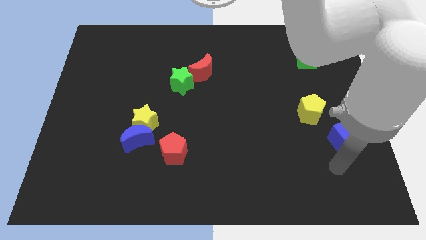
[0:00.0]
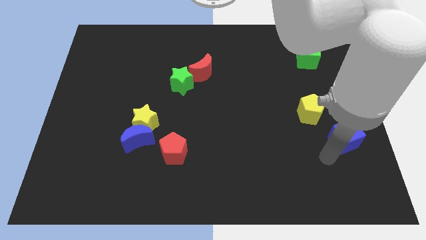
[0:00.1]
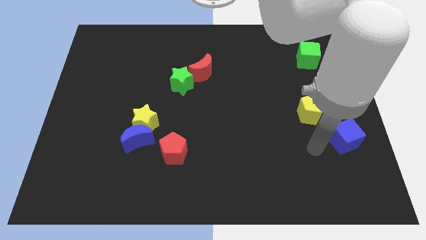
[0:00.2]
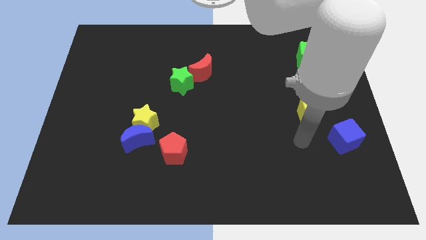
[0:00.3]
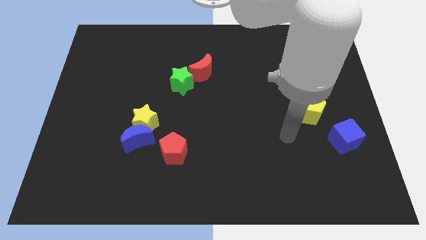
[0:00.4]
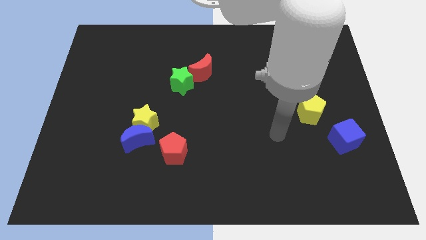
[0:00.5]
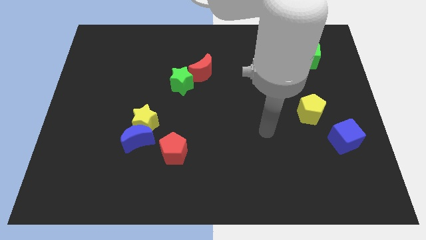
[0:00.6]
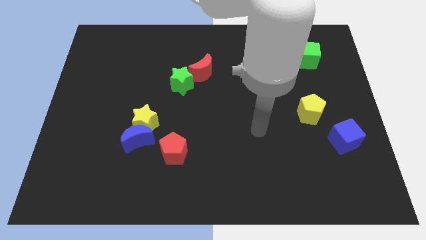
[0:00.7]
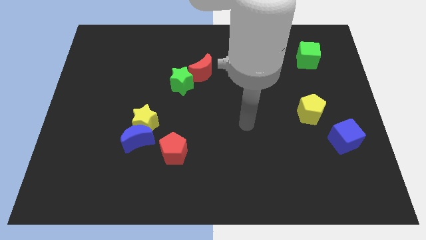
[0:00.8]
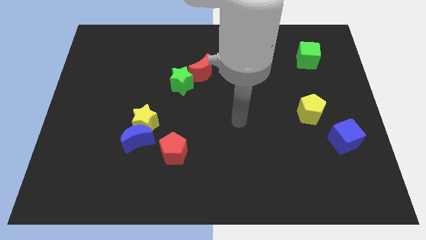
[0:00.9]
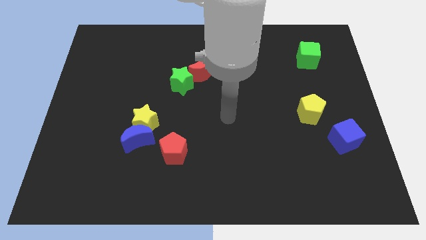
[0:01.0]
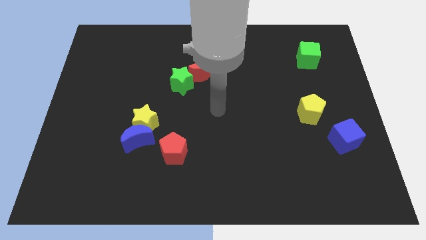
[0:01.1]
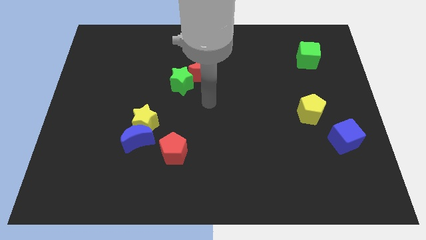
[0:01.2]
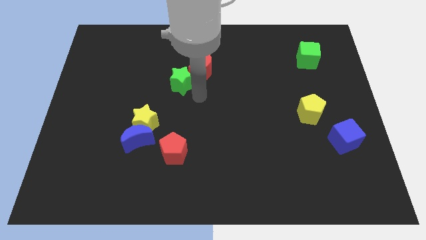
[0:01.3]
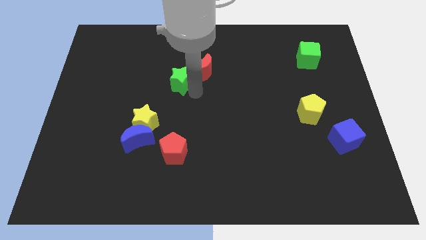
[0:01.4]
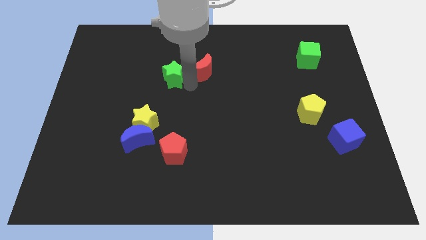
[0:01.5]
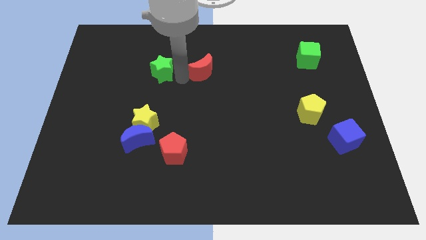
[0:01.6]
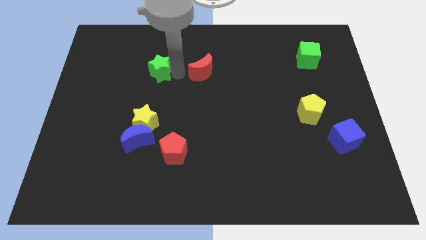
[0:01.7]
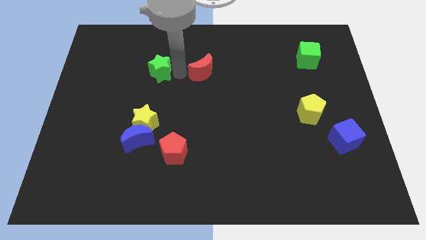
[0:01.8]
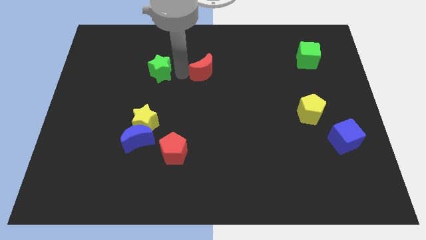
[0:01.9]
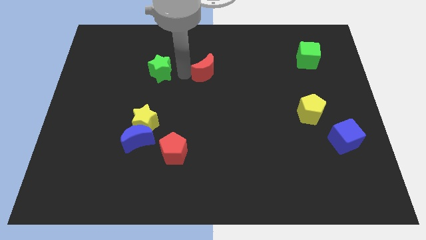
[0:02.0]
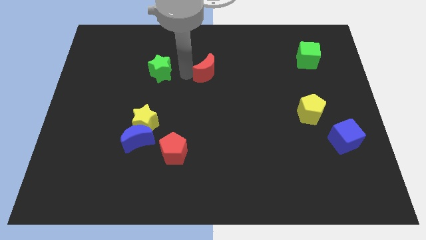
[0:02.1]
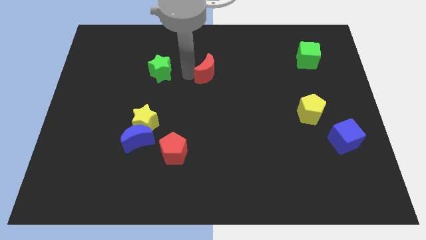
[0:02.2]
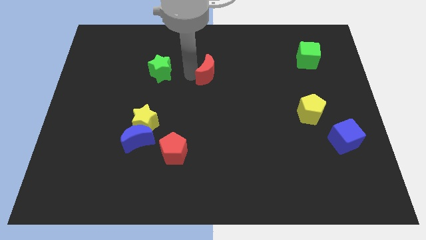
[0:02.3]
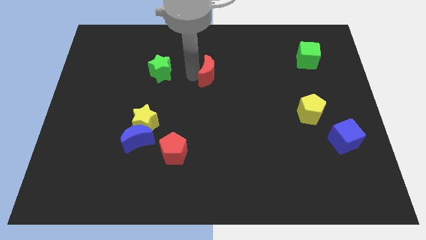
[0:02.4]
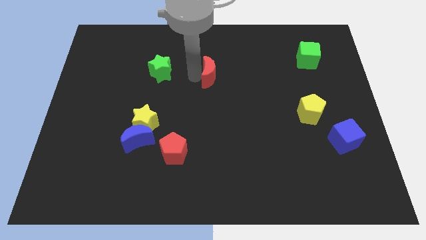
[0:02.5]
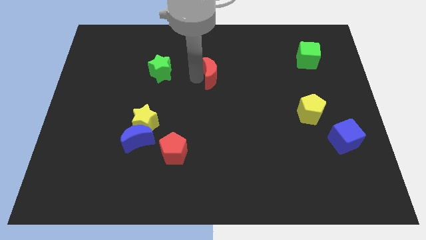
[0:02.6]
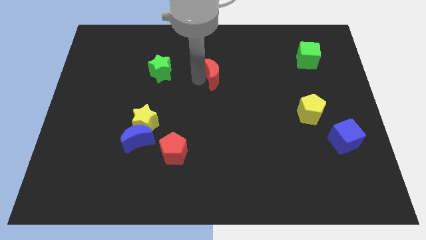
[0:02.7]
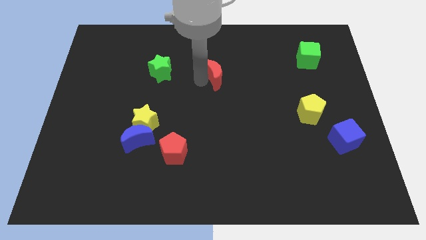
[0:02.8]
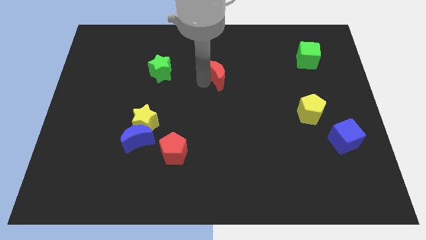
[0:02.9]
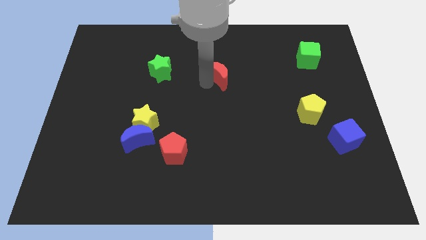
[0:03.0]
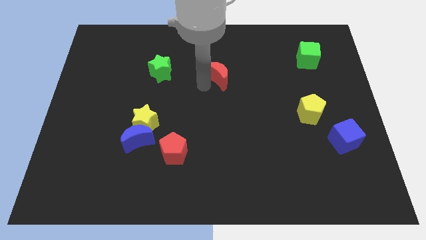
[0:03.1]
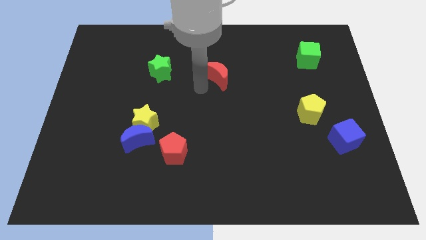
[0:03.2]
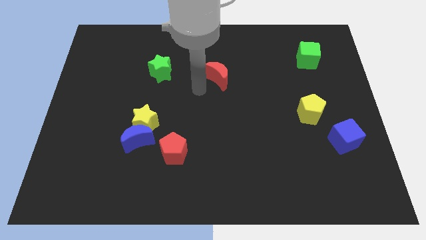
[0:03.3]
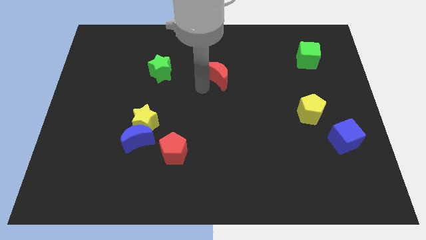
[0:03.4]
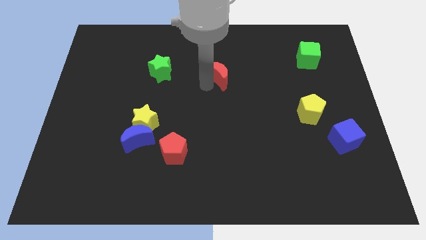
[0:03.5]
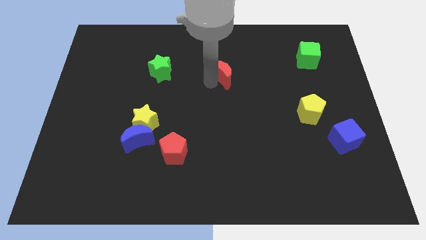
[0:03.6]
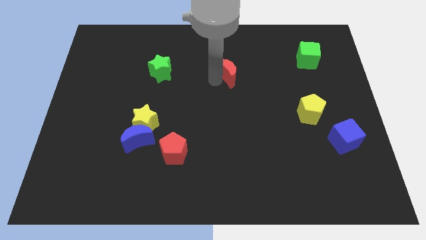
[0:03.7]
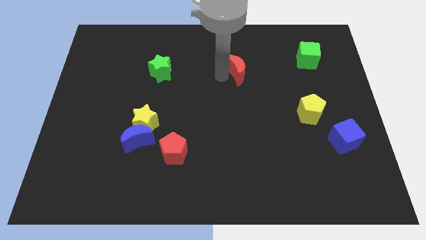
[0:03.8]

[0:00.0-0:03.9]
slightly move the red moon right

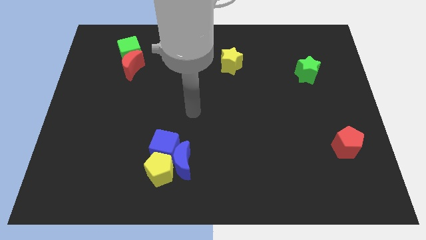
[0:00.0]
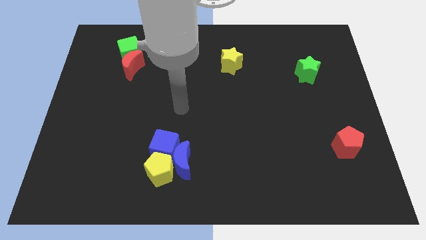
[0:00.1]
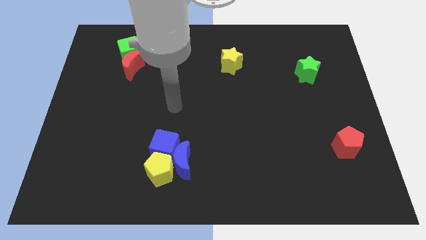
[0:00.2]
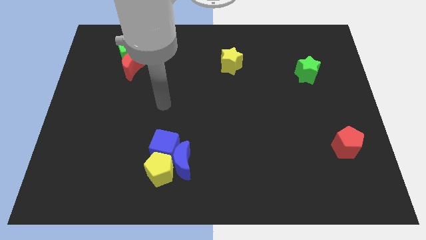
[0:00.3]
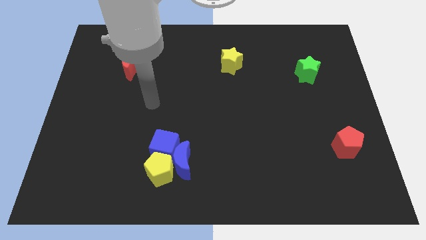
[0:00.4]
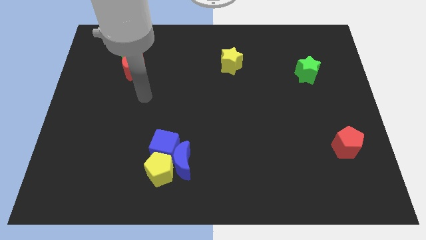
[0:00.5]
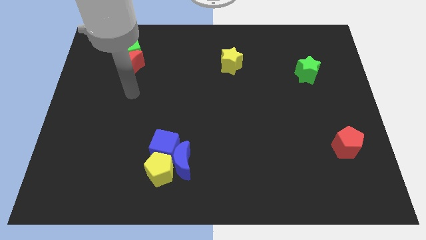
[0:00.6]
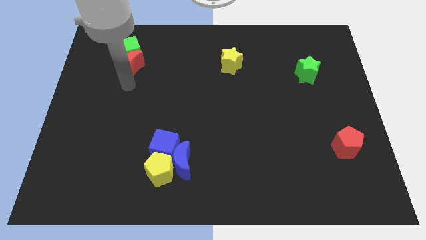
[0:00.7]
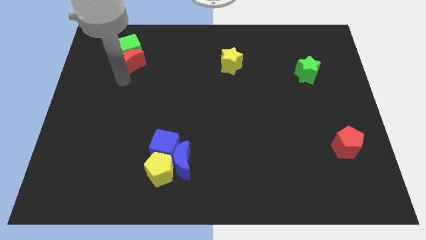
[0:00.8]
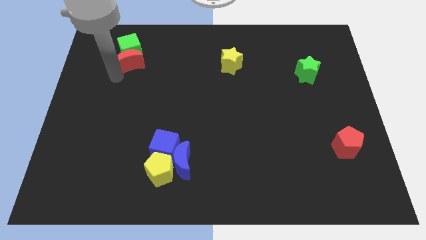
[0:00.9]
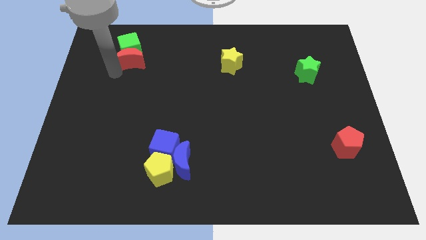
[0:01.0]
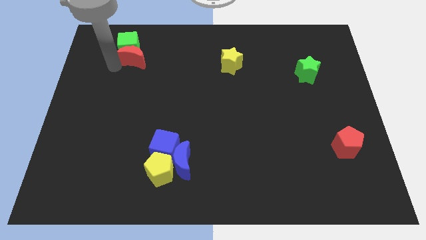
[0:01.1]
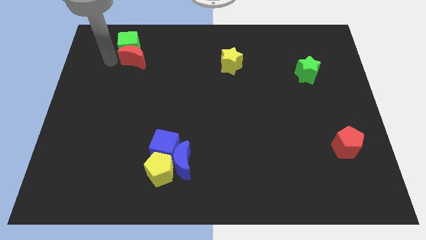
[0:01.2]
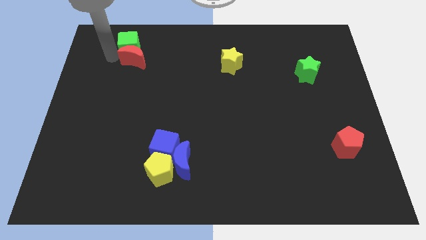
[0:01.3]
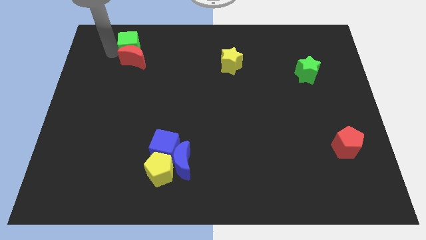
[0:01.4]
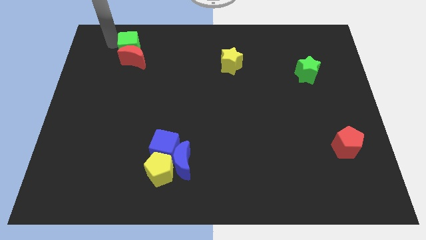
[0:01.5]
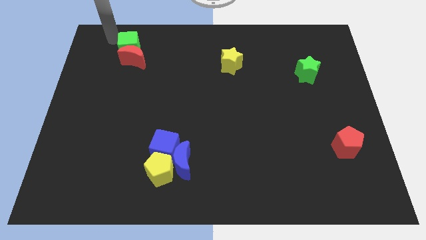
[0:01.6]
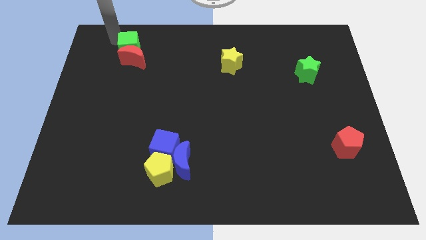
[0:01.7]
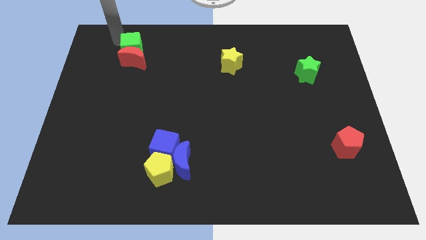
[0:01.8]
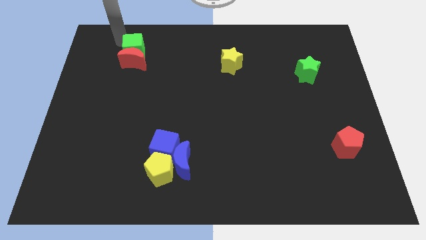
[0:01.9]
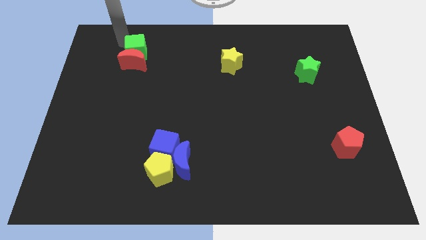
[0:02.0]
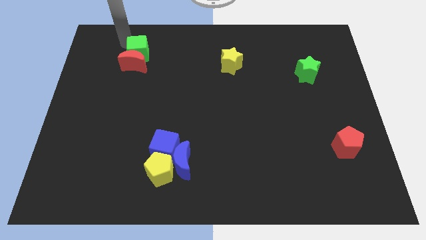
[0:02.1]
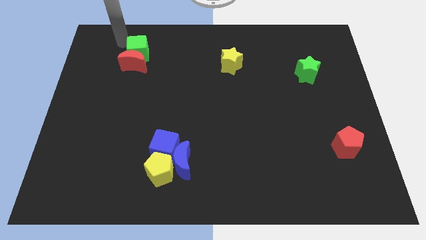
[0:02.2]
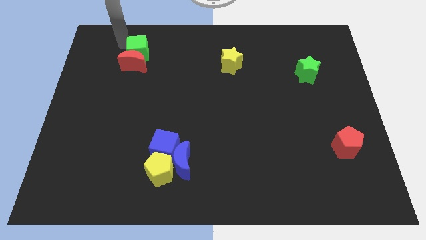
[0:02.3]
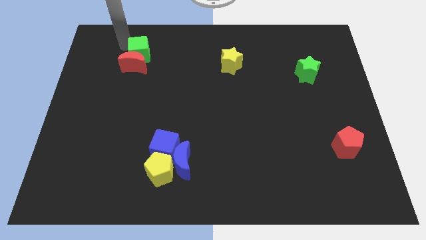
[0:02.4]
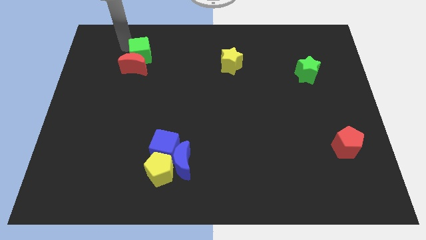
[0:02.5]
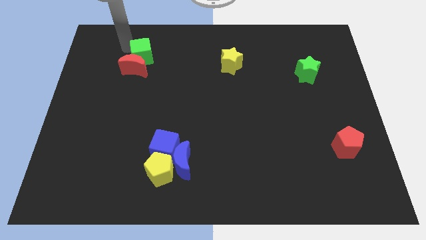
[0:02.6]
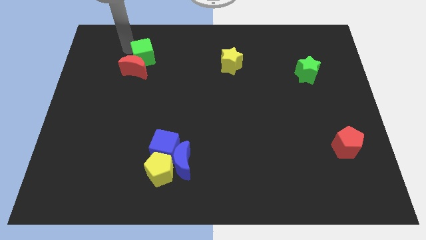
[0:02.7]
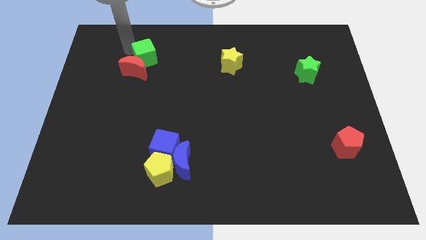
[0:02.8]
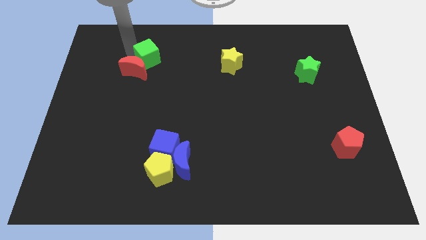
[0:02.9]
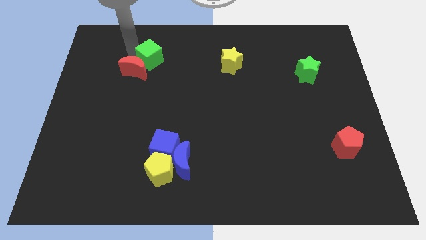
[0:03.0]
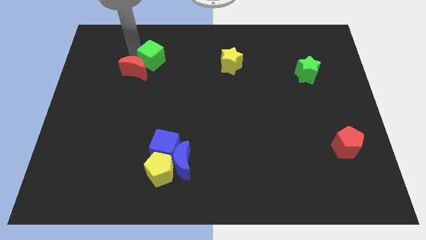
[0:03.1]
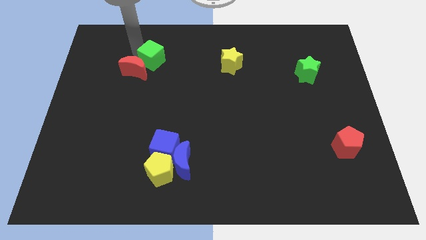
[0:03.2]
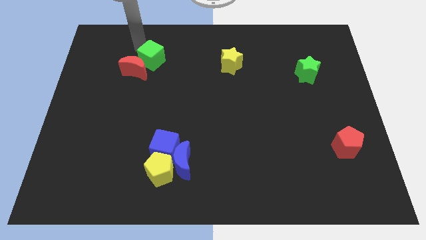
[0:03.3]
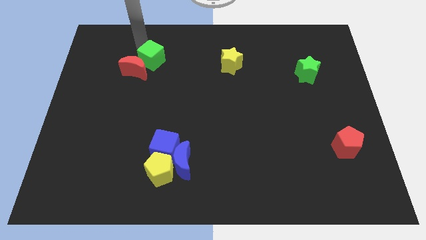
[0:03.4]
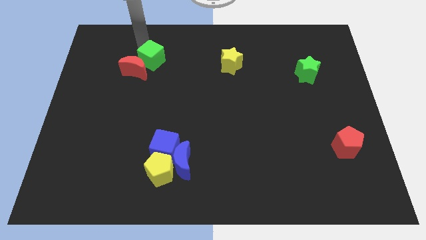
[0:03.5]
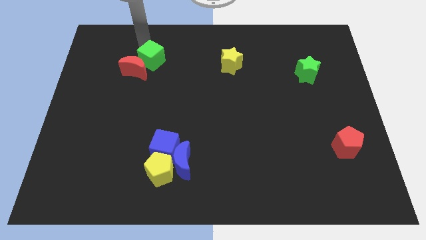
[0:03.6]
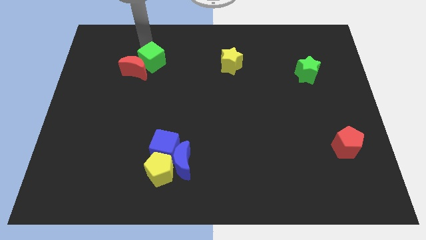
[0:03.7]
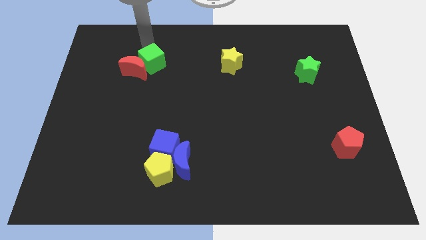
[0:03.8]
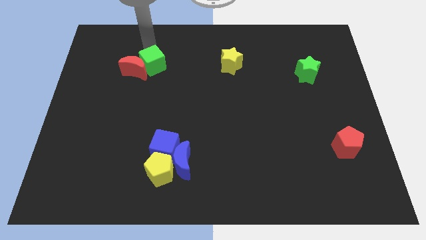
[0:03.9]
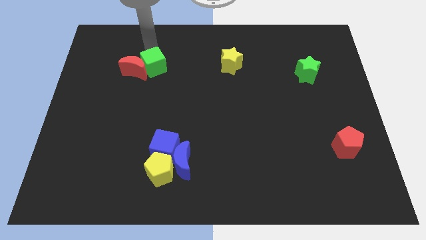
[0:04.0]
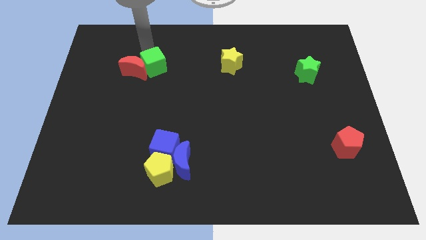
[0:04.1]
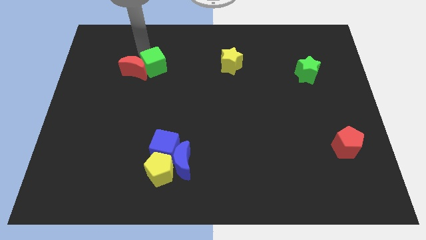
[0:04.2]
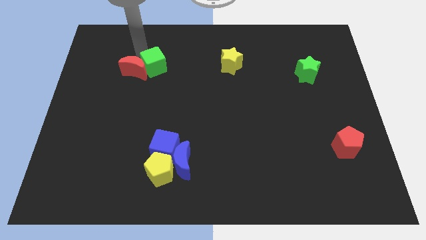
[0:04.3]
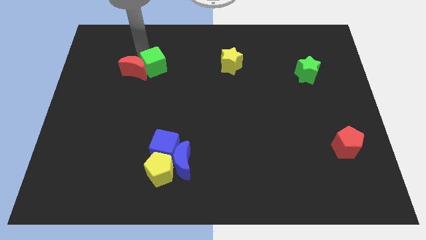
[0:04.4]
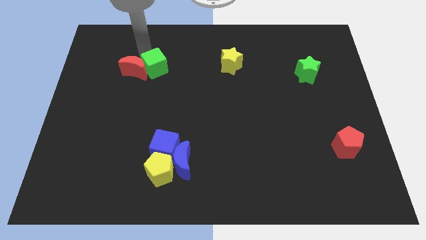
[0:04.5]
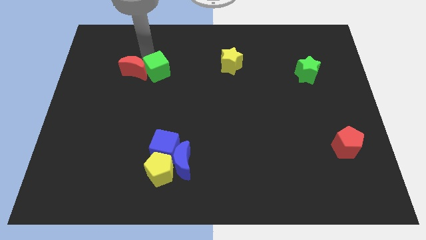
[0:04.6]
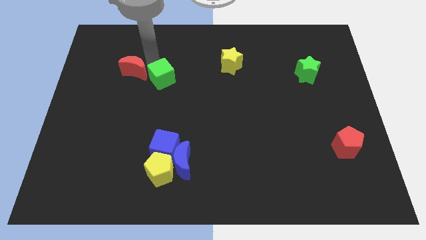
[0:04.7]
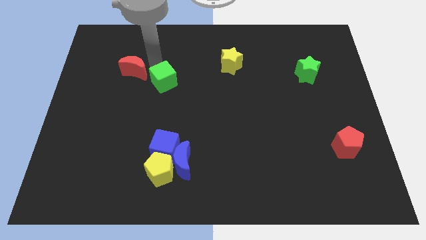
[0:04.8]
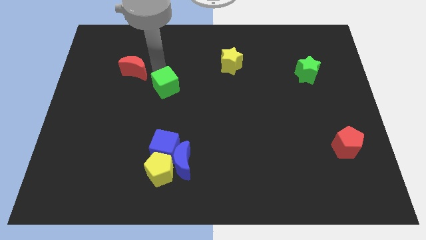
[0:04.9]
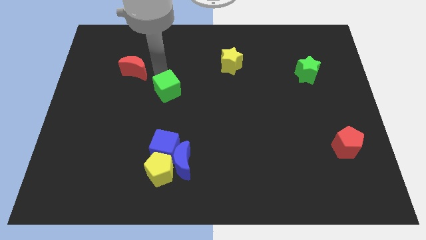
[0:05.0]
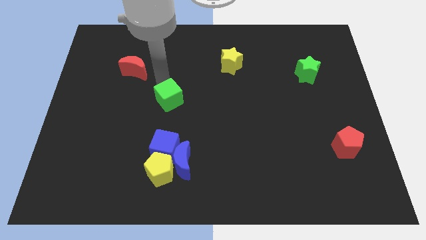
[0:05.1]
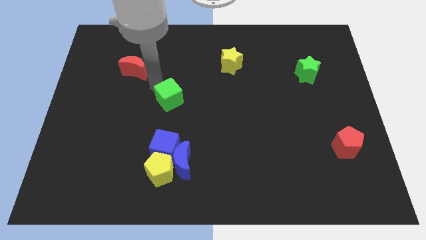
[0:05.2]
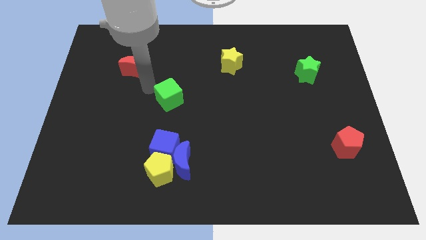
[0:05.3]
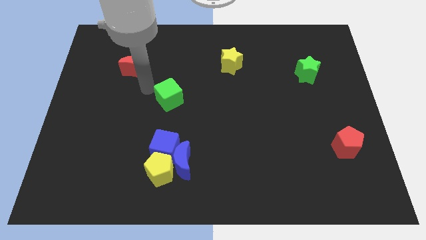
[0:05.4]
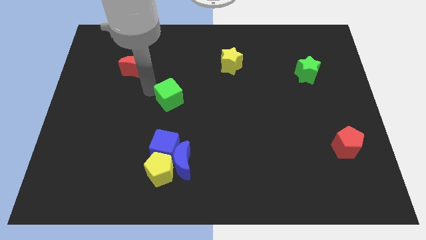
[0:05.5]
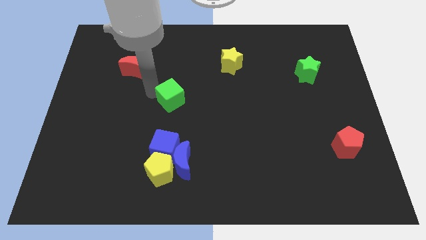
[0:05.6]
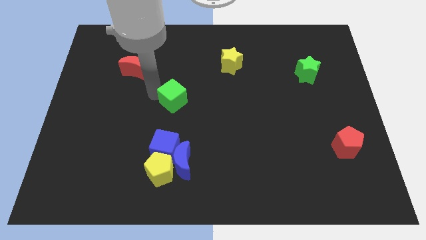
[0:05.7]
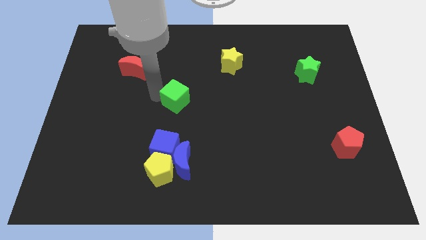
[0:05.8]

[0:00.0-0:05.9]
move the green cube down and then to the right
